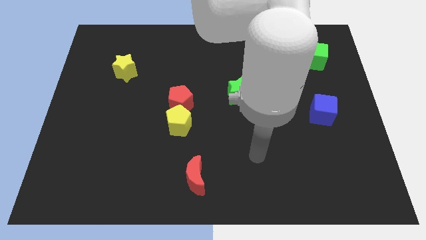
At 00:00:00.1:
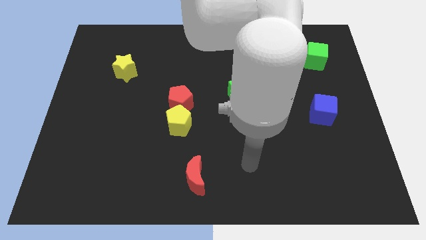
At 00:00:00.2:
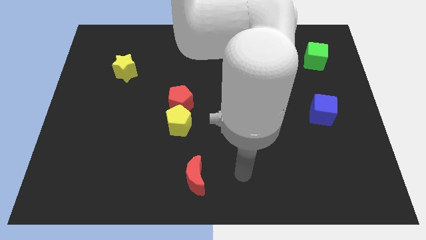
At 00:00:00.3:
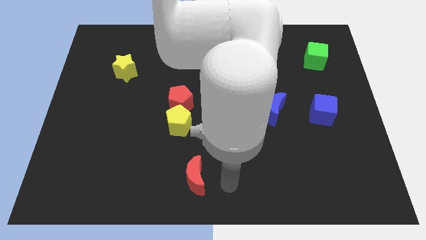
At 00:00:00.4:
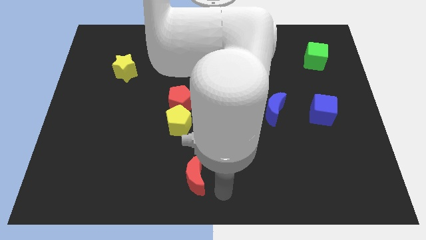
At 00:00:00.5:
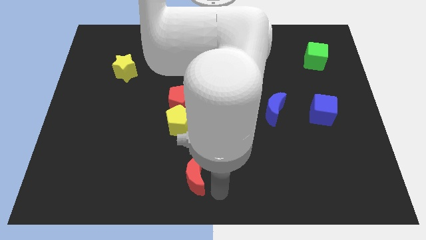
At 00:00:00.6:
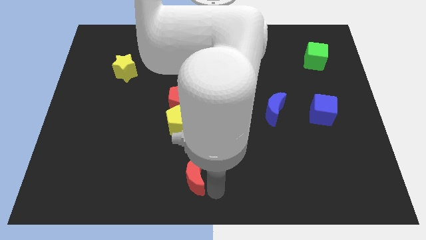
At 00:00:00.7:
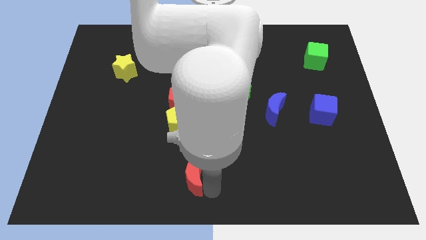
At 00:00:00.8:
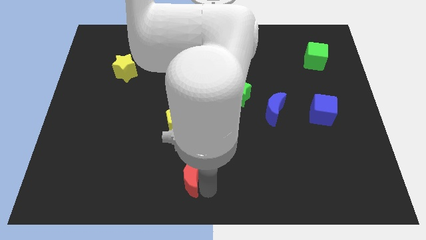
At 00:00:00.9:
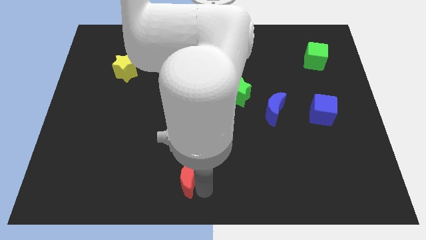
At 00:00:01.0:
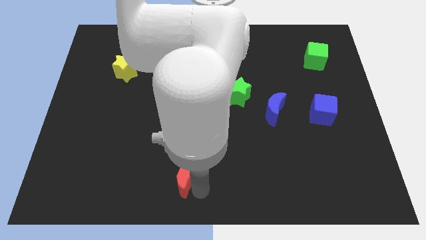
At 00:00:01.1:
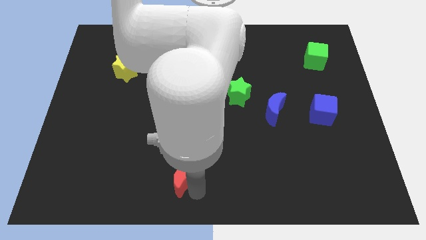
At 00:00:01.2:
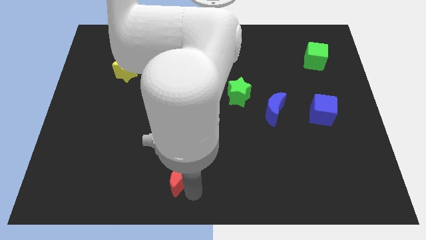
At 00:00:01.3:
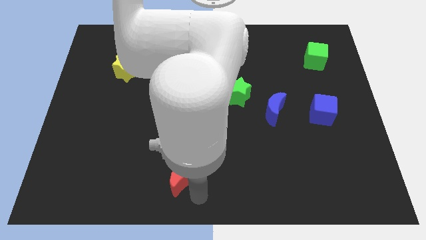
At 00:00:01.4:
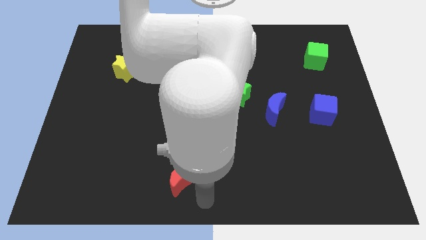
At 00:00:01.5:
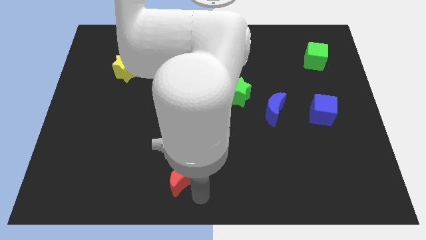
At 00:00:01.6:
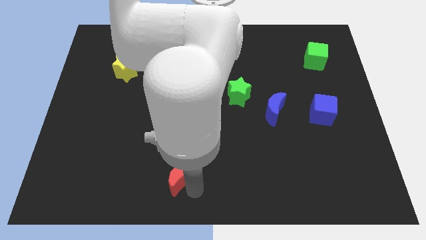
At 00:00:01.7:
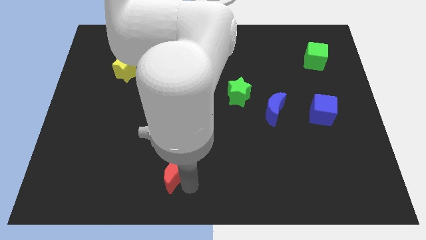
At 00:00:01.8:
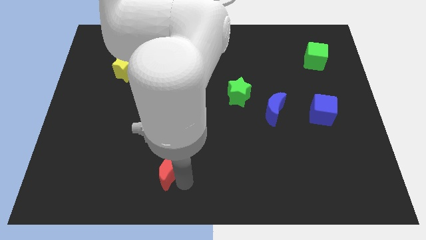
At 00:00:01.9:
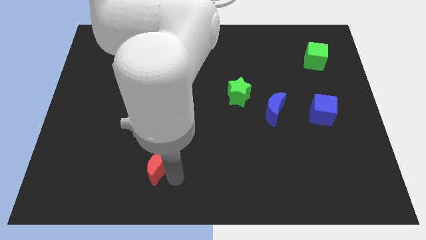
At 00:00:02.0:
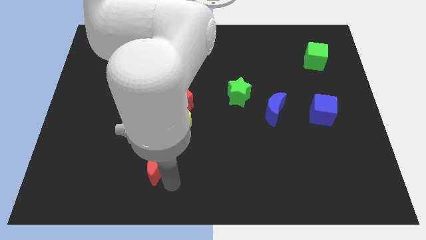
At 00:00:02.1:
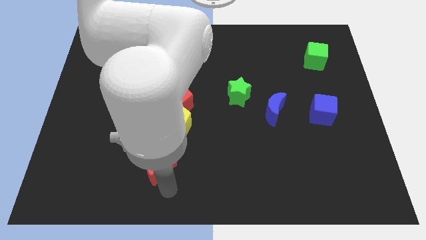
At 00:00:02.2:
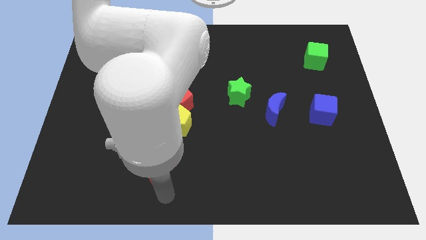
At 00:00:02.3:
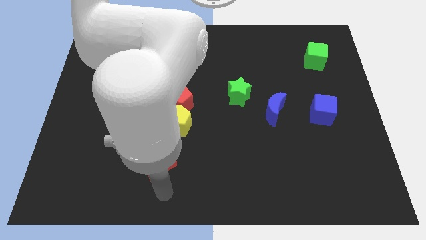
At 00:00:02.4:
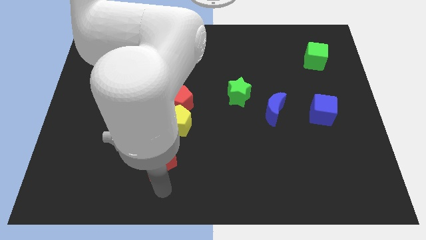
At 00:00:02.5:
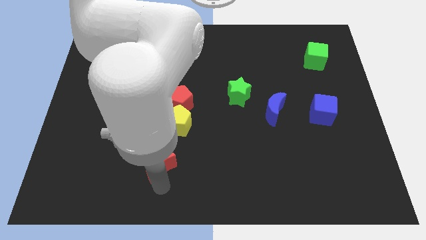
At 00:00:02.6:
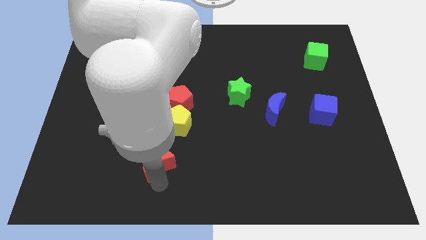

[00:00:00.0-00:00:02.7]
slightly push the red moon up and left diagonally

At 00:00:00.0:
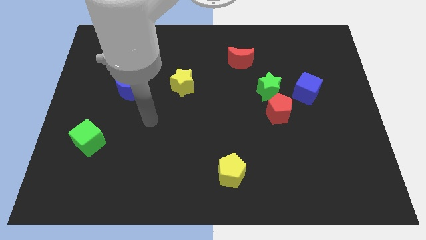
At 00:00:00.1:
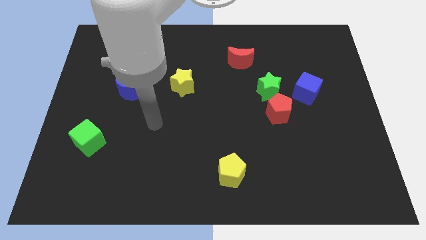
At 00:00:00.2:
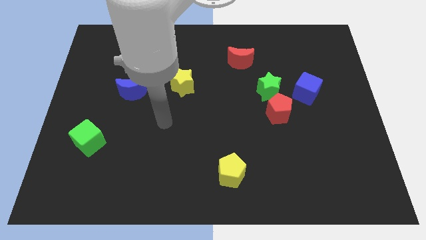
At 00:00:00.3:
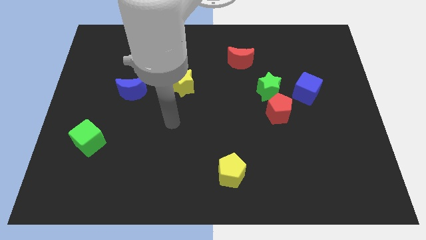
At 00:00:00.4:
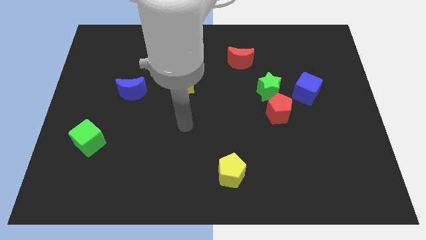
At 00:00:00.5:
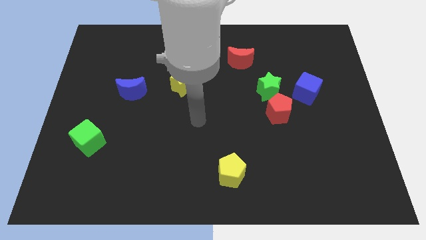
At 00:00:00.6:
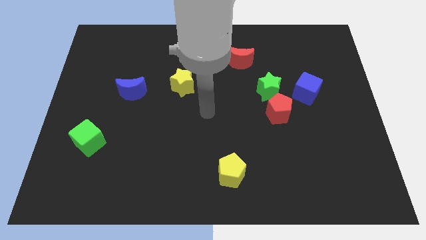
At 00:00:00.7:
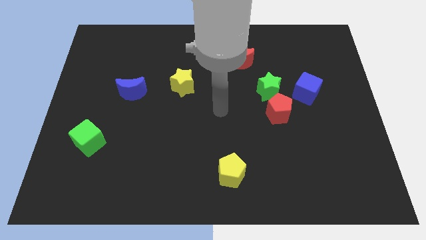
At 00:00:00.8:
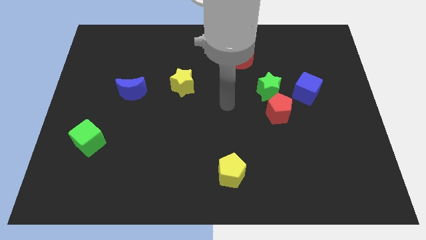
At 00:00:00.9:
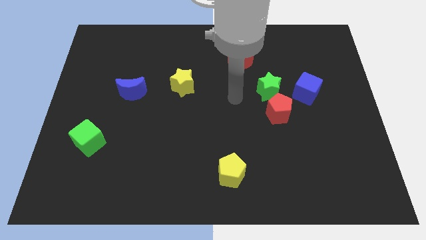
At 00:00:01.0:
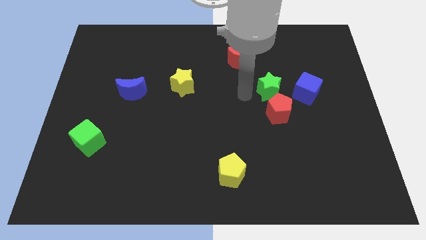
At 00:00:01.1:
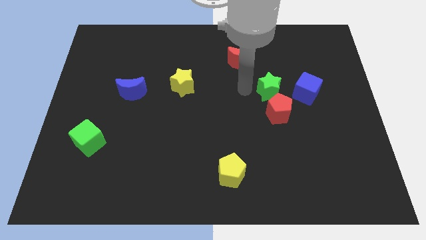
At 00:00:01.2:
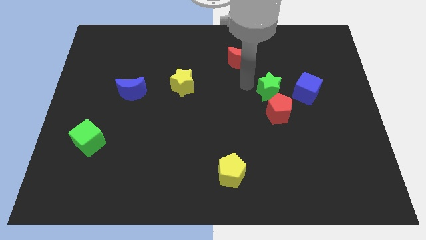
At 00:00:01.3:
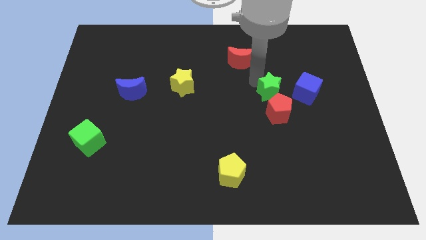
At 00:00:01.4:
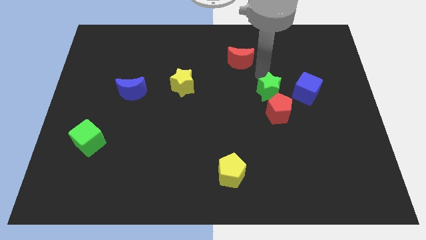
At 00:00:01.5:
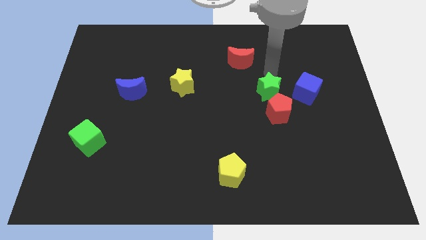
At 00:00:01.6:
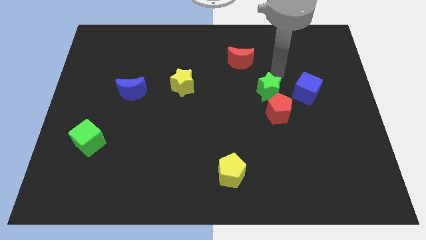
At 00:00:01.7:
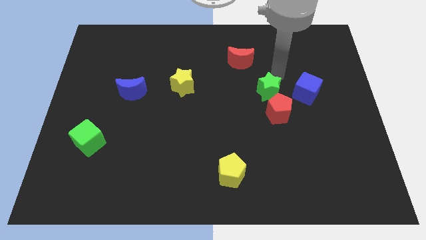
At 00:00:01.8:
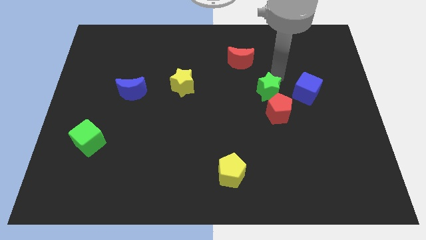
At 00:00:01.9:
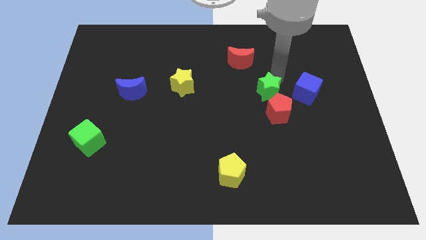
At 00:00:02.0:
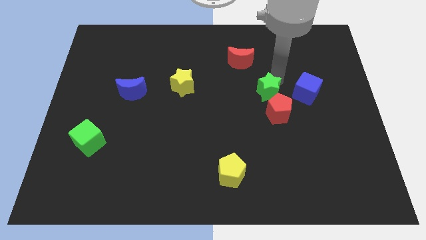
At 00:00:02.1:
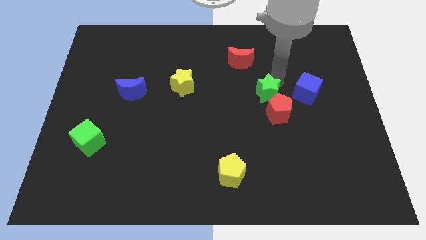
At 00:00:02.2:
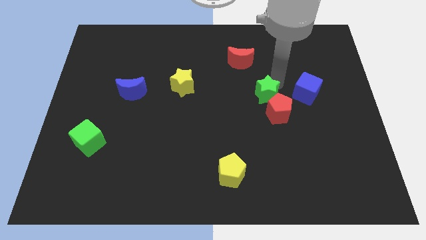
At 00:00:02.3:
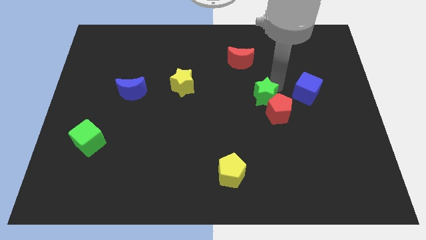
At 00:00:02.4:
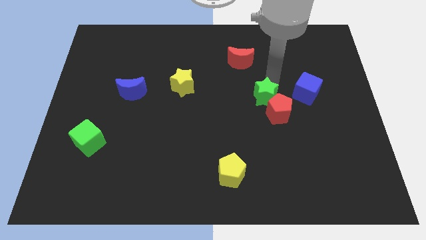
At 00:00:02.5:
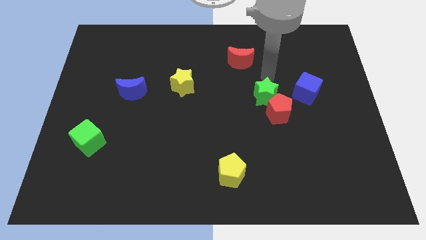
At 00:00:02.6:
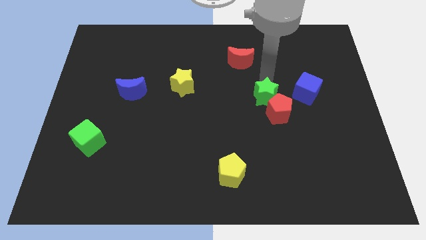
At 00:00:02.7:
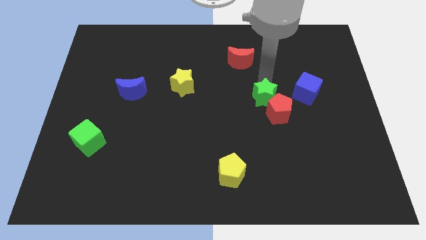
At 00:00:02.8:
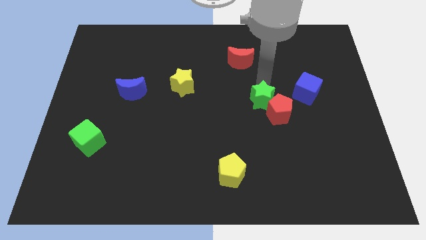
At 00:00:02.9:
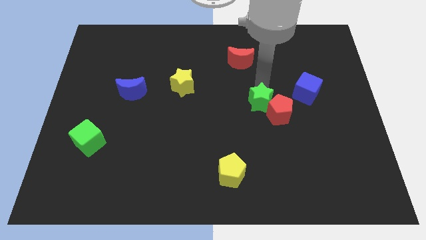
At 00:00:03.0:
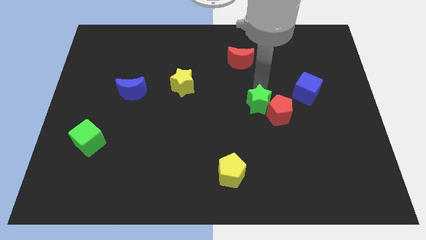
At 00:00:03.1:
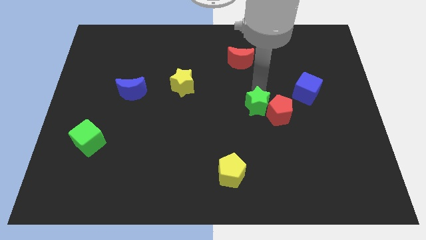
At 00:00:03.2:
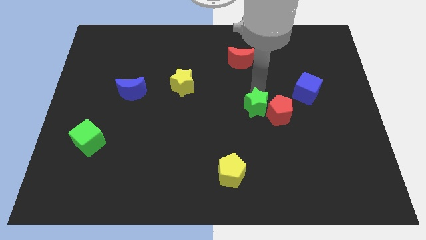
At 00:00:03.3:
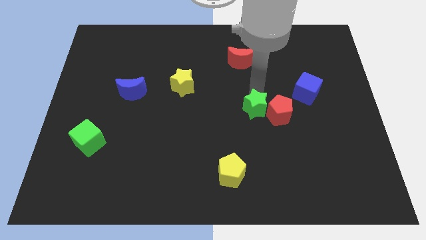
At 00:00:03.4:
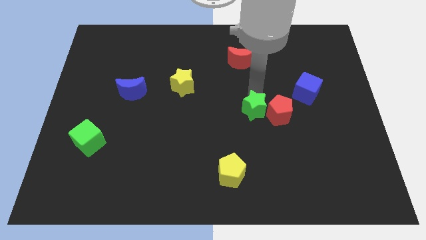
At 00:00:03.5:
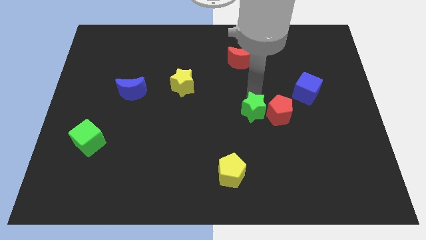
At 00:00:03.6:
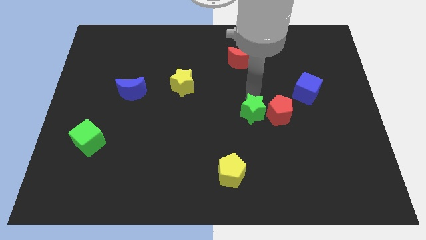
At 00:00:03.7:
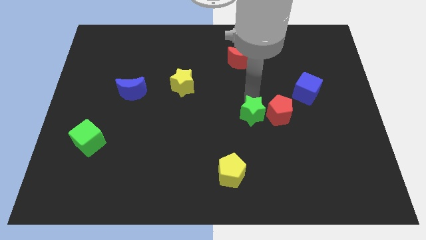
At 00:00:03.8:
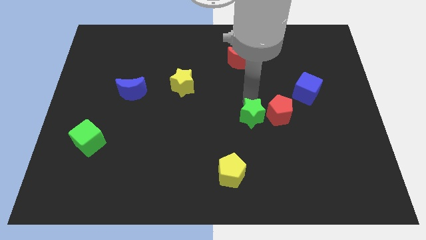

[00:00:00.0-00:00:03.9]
slide the green star downwards a little

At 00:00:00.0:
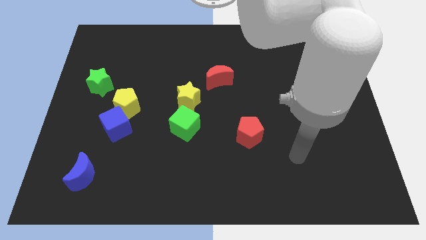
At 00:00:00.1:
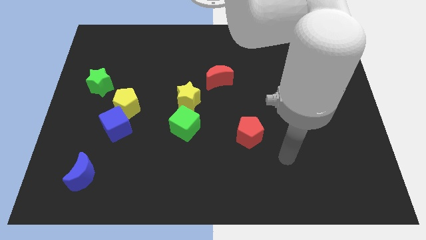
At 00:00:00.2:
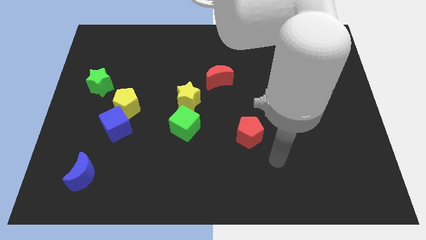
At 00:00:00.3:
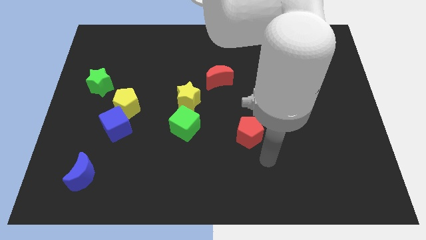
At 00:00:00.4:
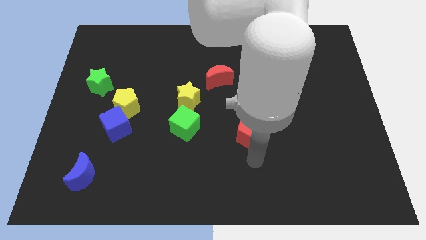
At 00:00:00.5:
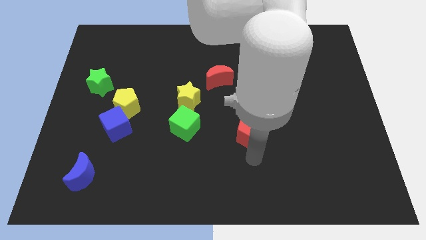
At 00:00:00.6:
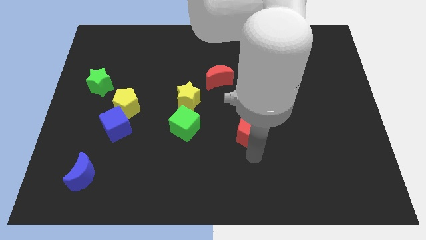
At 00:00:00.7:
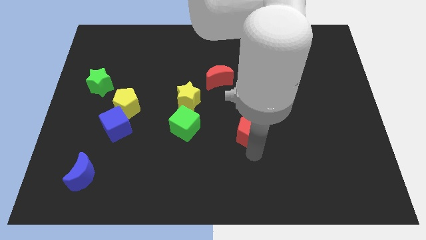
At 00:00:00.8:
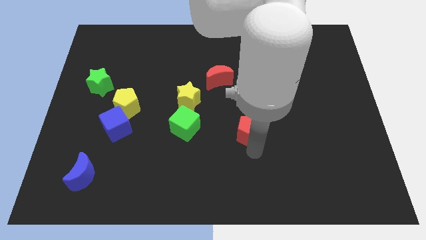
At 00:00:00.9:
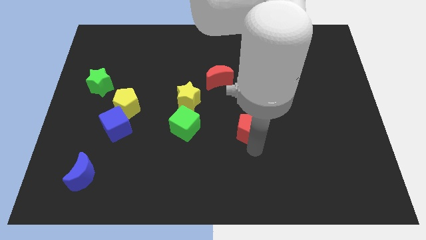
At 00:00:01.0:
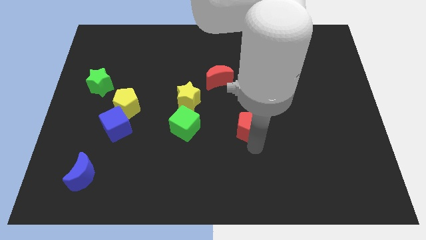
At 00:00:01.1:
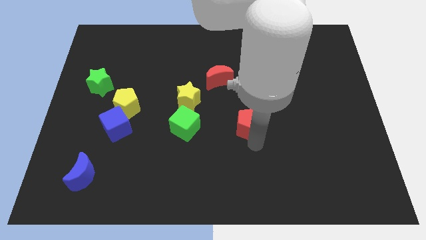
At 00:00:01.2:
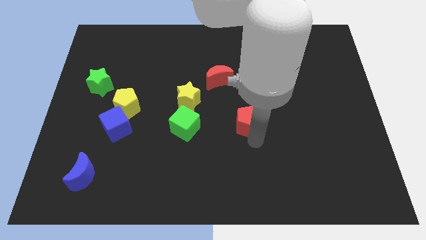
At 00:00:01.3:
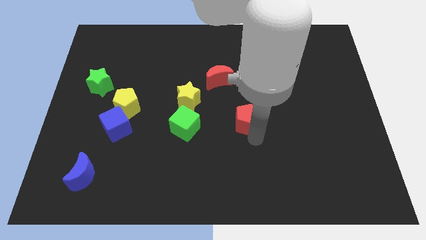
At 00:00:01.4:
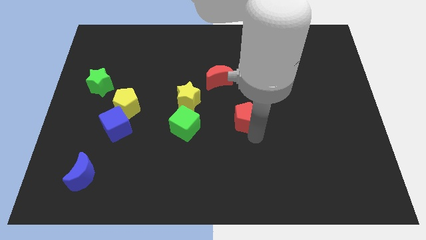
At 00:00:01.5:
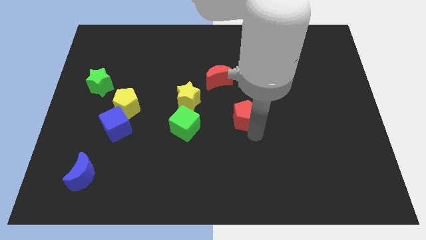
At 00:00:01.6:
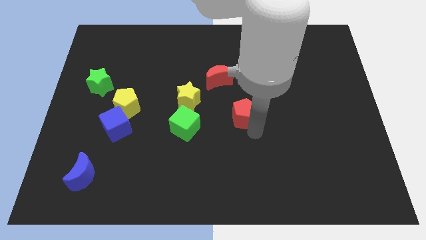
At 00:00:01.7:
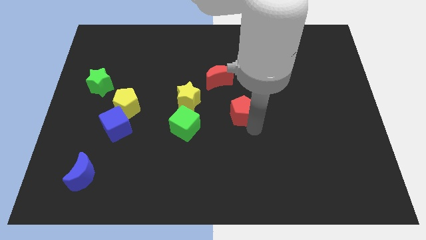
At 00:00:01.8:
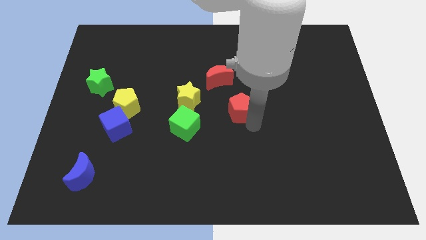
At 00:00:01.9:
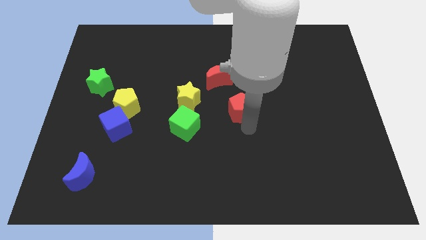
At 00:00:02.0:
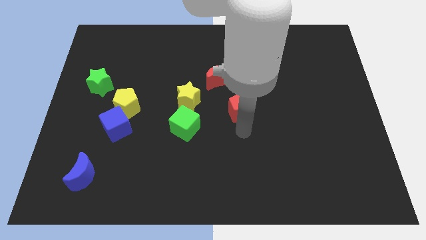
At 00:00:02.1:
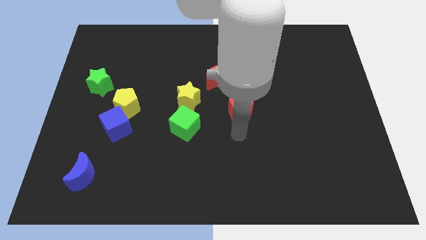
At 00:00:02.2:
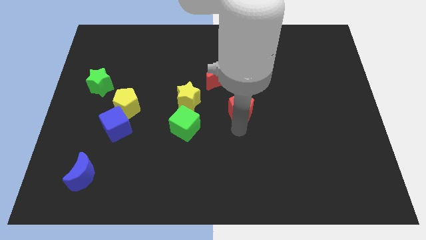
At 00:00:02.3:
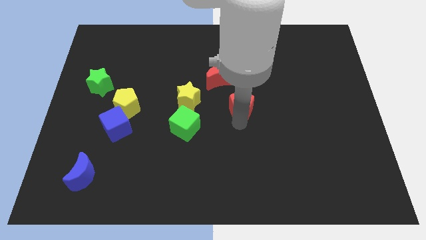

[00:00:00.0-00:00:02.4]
push the red pentagon somewhat up
